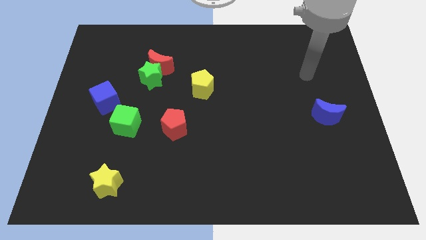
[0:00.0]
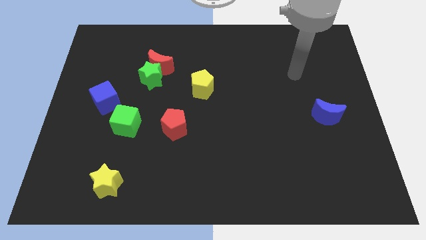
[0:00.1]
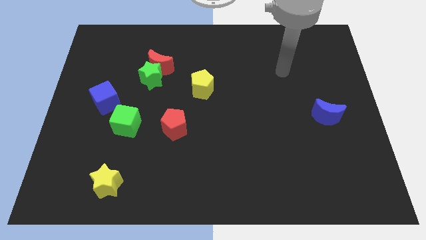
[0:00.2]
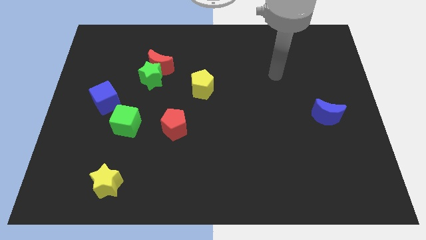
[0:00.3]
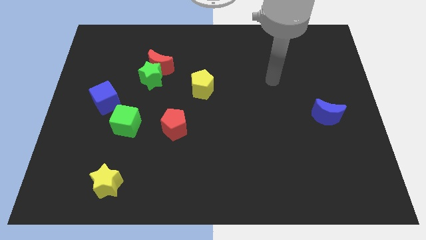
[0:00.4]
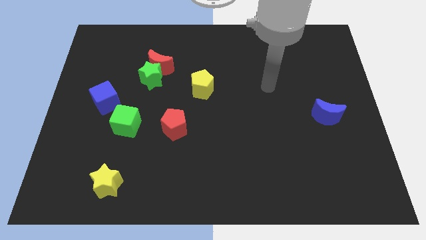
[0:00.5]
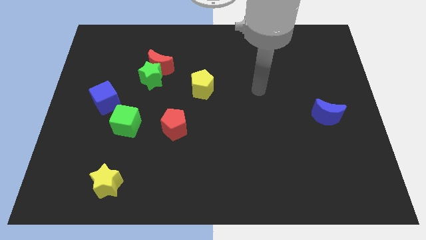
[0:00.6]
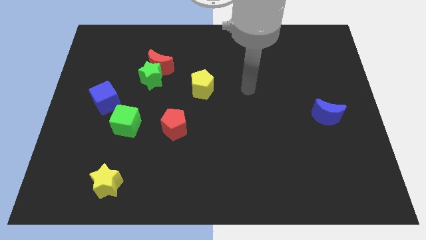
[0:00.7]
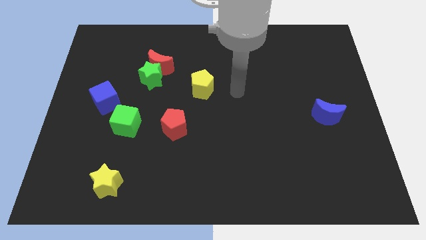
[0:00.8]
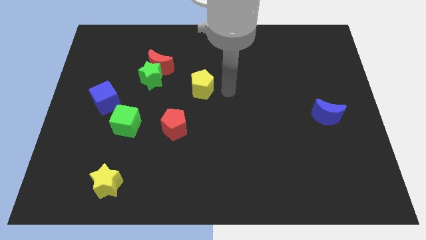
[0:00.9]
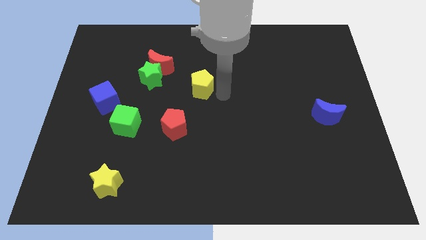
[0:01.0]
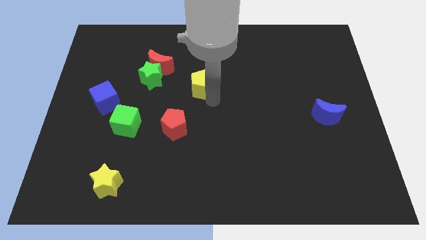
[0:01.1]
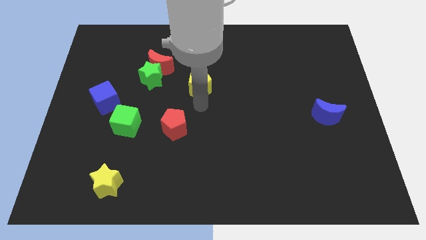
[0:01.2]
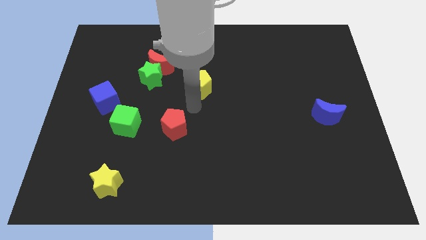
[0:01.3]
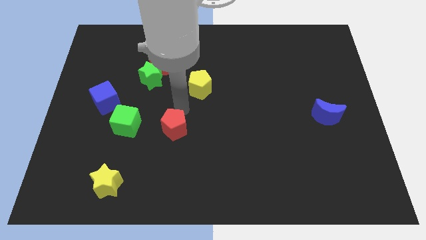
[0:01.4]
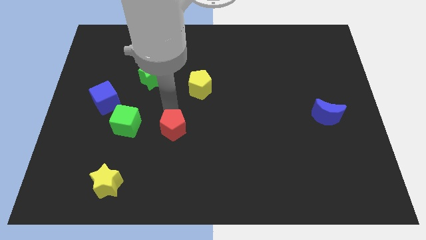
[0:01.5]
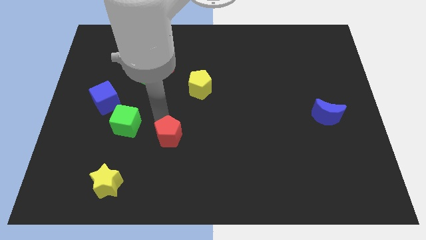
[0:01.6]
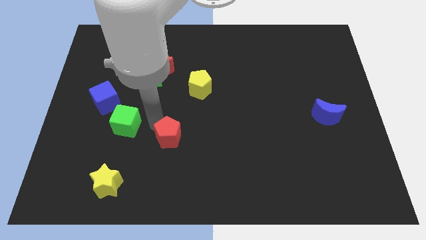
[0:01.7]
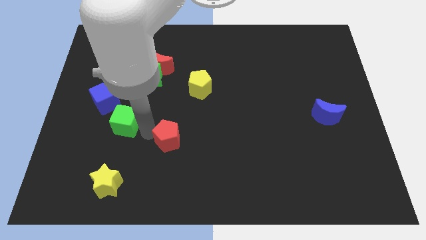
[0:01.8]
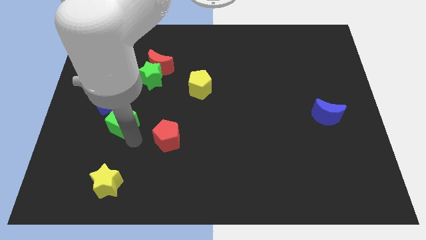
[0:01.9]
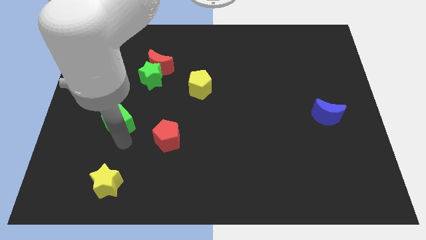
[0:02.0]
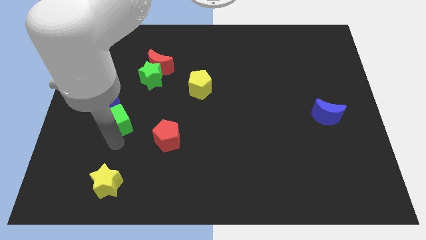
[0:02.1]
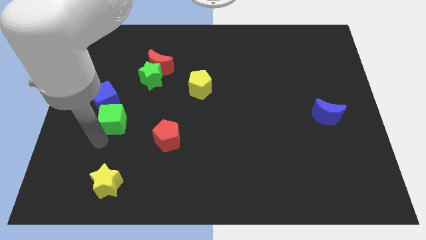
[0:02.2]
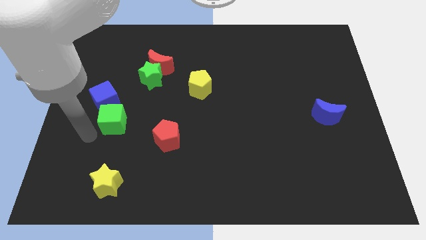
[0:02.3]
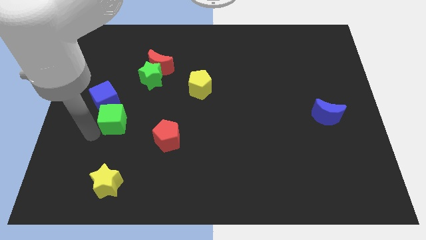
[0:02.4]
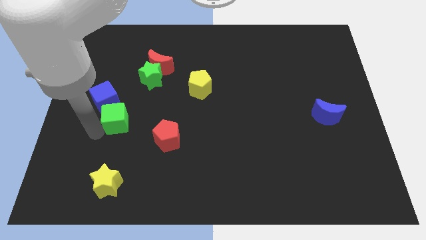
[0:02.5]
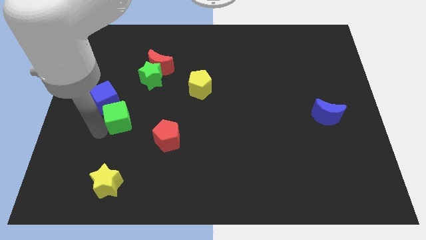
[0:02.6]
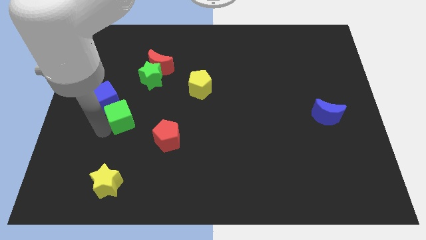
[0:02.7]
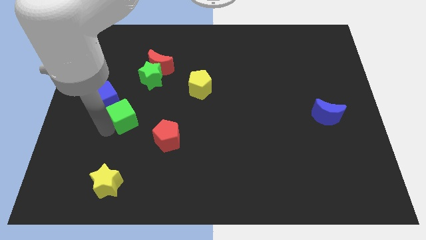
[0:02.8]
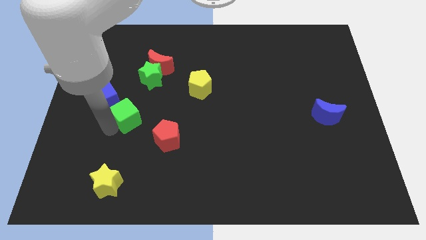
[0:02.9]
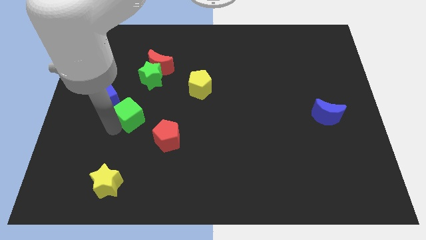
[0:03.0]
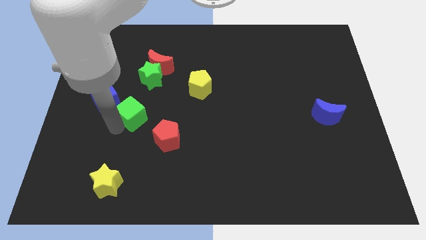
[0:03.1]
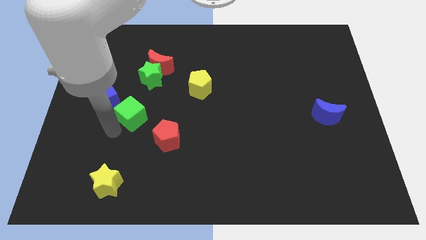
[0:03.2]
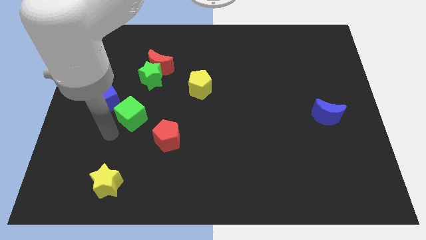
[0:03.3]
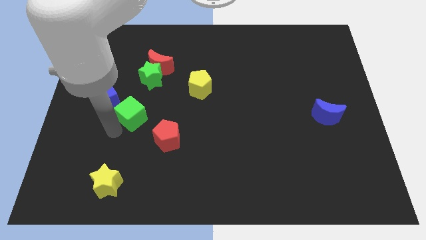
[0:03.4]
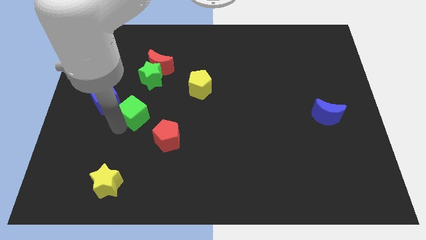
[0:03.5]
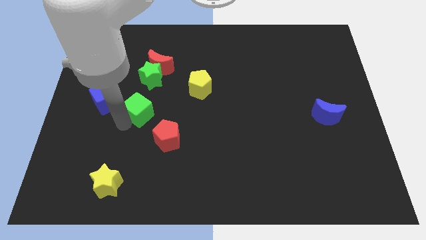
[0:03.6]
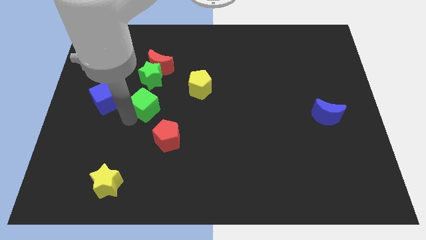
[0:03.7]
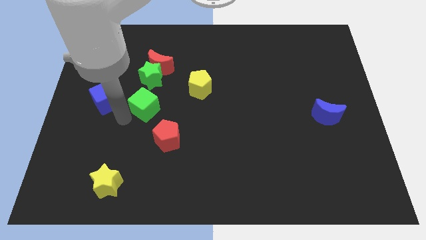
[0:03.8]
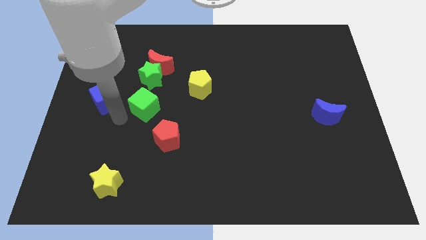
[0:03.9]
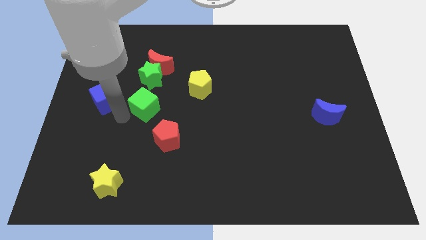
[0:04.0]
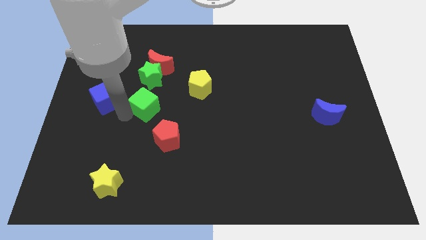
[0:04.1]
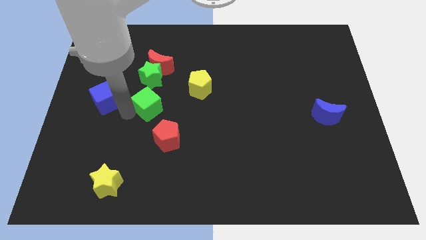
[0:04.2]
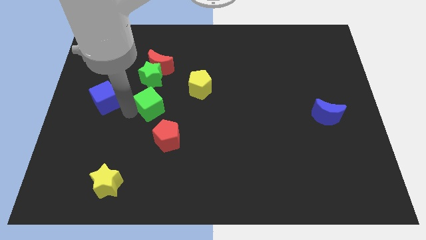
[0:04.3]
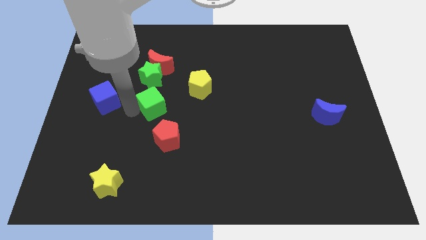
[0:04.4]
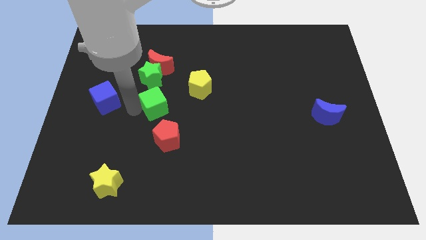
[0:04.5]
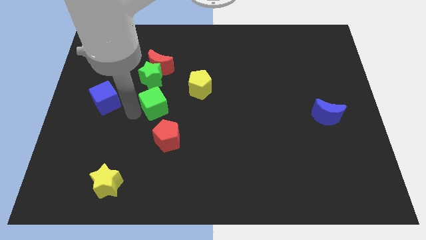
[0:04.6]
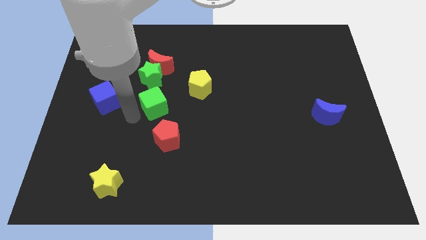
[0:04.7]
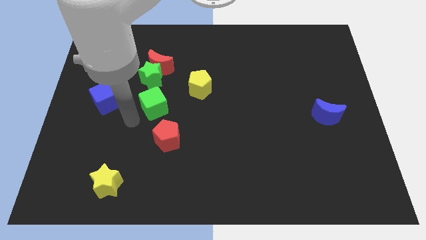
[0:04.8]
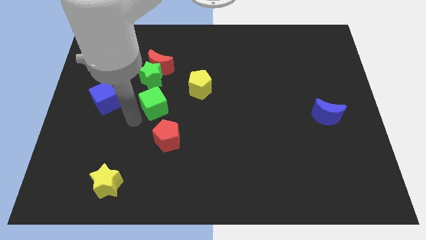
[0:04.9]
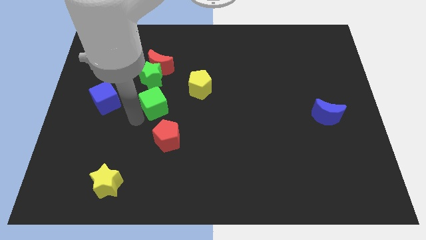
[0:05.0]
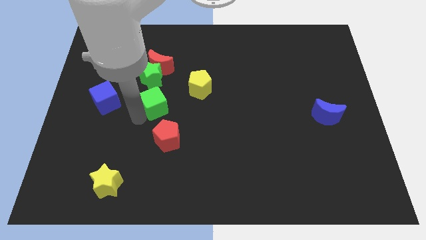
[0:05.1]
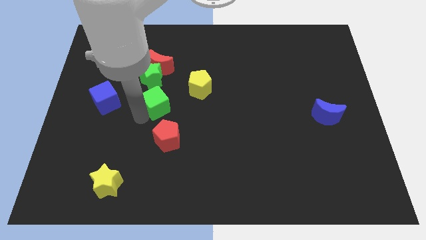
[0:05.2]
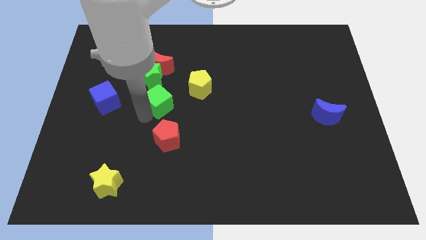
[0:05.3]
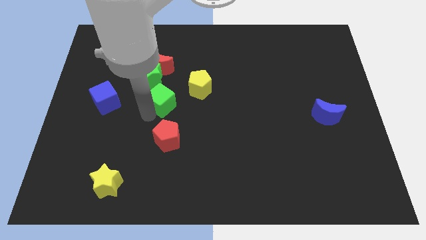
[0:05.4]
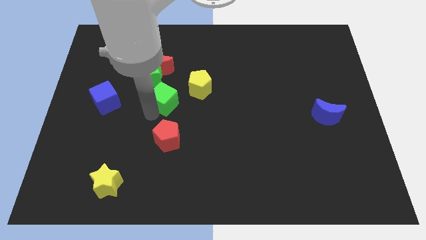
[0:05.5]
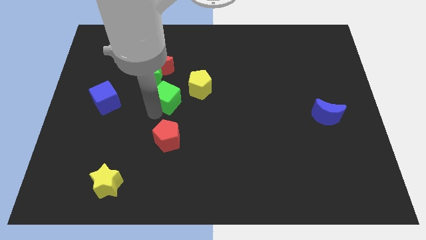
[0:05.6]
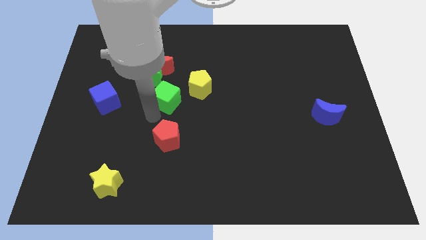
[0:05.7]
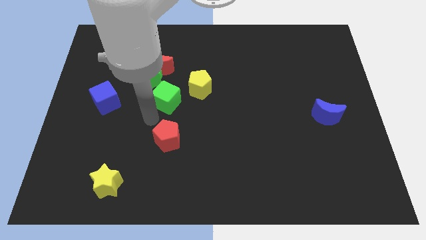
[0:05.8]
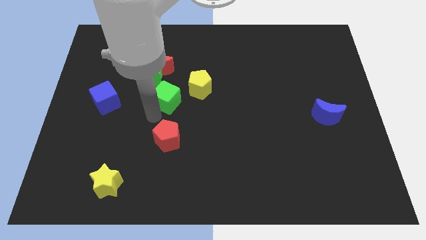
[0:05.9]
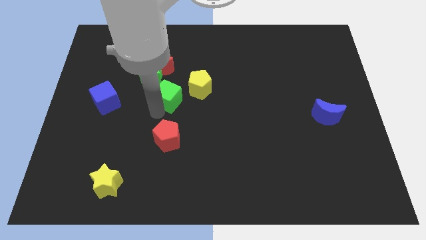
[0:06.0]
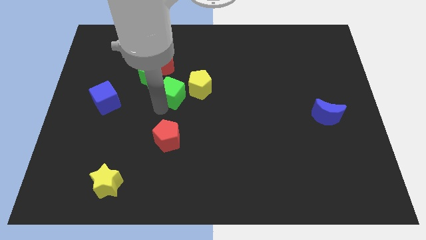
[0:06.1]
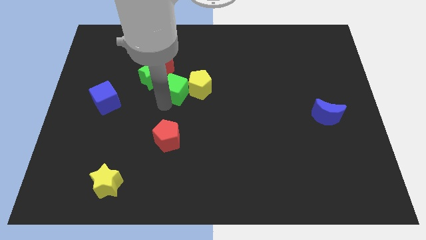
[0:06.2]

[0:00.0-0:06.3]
slide the green cube to the right of the green star
